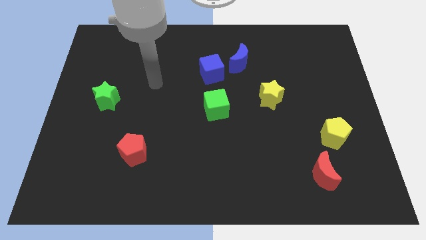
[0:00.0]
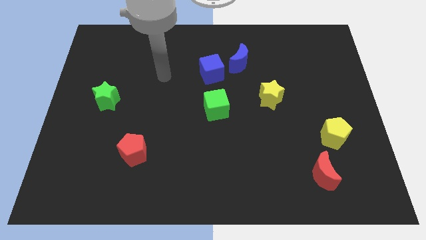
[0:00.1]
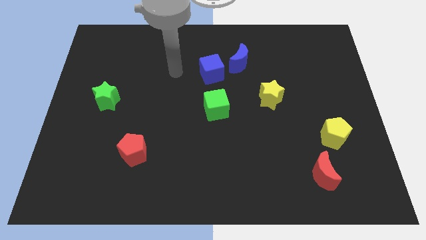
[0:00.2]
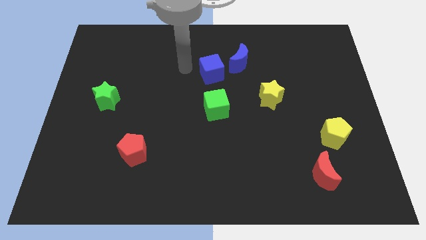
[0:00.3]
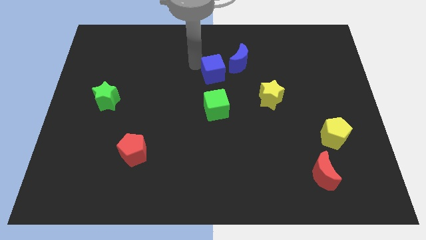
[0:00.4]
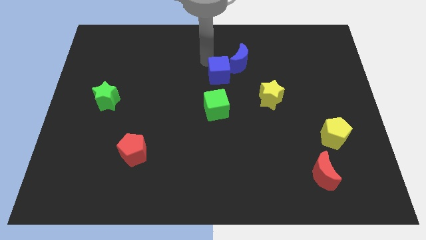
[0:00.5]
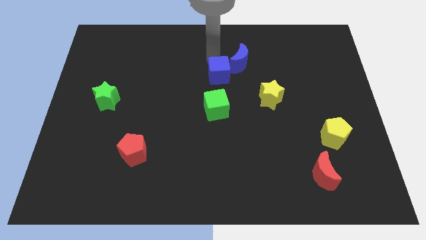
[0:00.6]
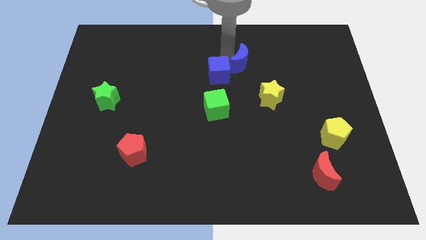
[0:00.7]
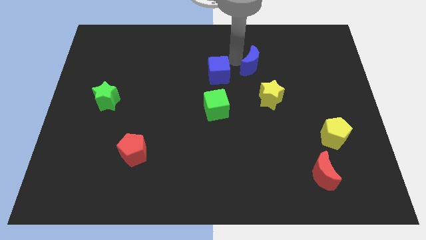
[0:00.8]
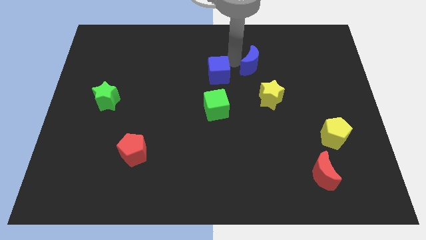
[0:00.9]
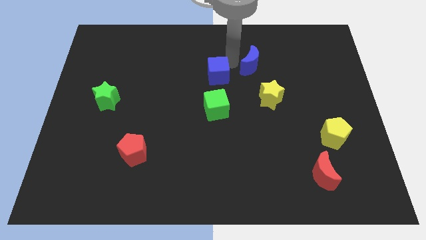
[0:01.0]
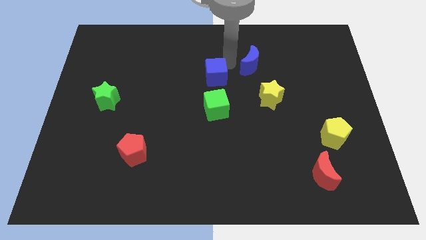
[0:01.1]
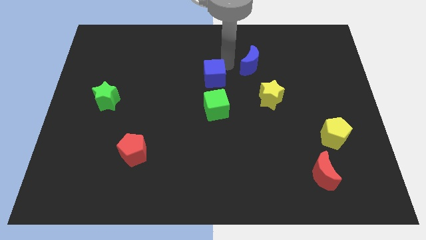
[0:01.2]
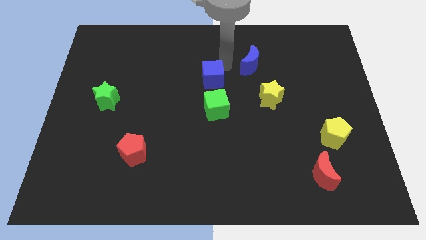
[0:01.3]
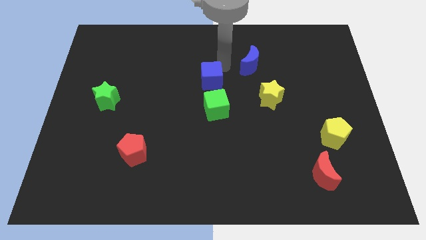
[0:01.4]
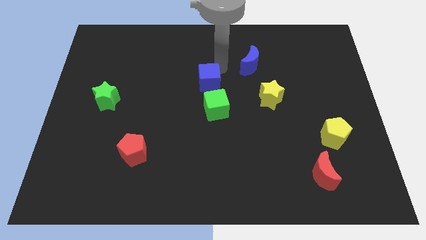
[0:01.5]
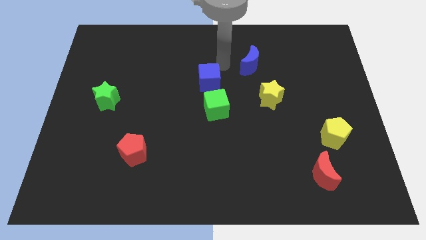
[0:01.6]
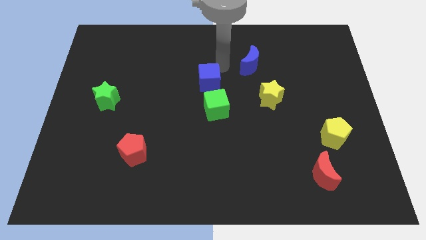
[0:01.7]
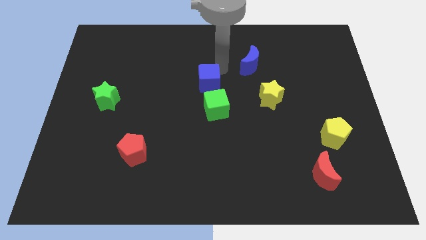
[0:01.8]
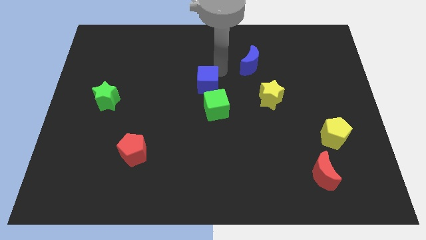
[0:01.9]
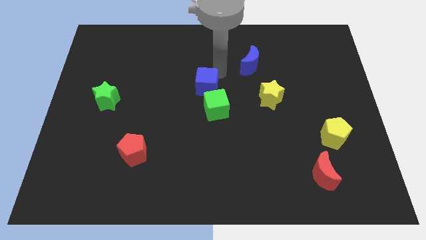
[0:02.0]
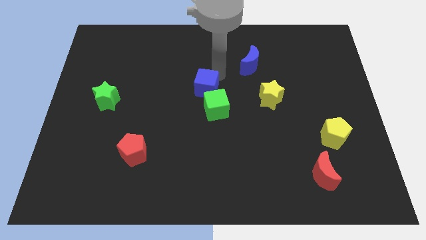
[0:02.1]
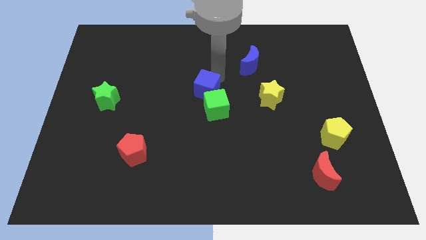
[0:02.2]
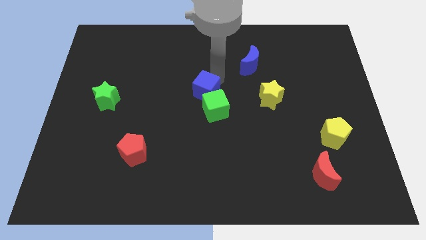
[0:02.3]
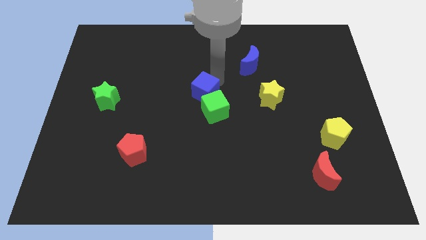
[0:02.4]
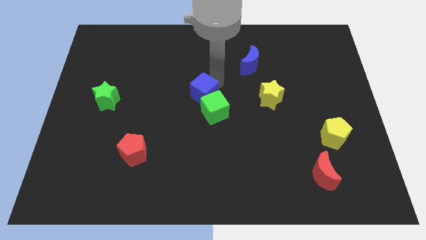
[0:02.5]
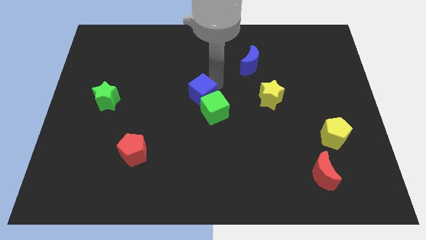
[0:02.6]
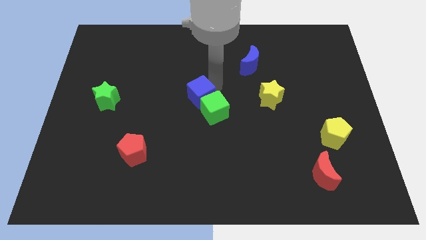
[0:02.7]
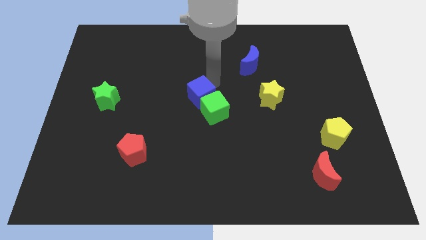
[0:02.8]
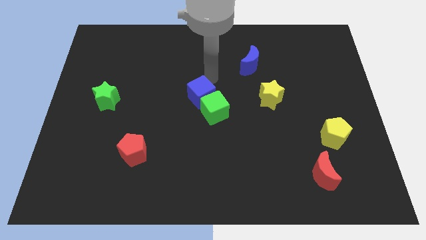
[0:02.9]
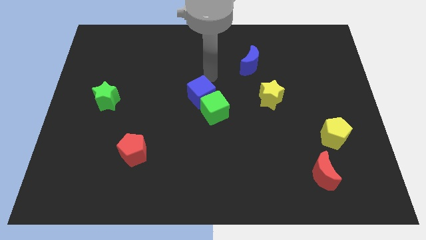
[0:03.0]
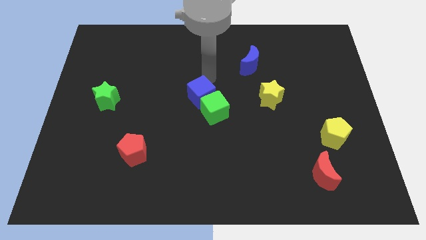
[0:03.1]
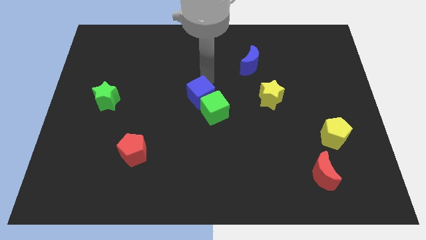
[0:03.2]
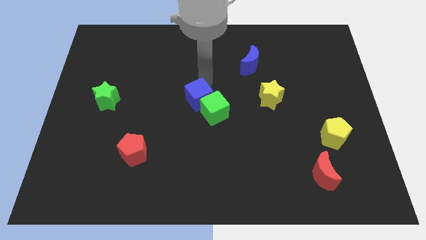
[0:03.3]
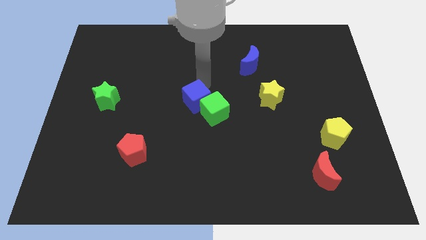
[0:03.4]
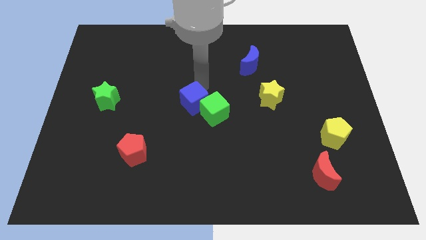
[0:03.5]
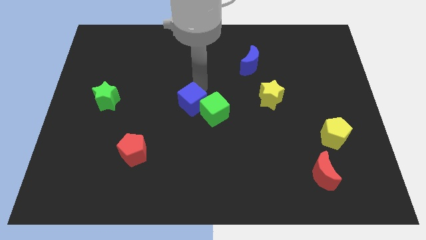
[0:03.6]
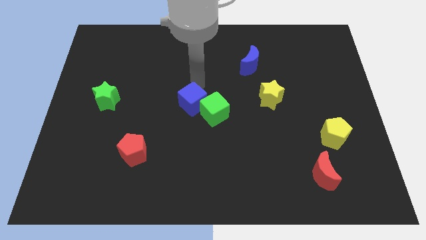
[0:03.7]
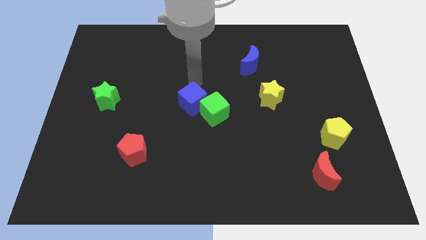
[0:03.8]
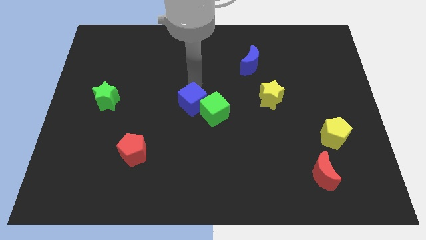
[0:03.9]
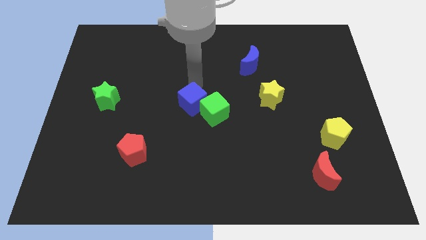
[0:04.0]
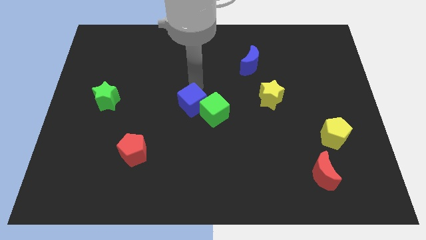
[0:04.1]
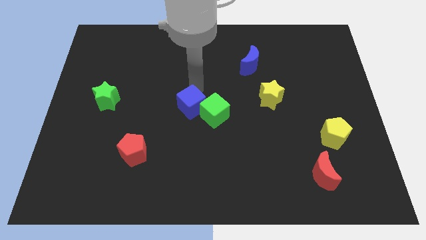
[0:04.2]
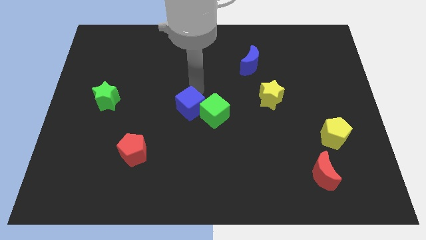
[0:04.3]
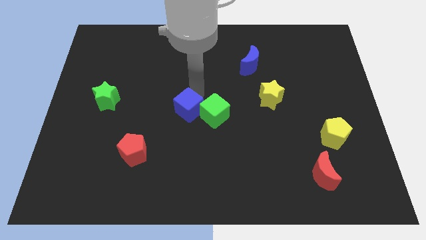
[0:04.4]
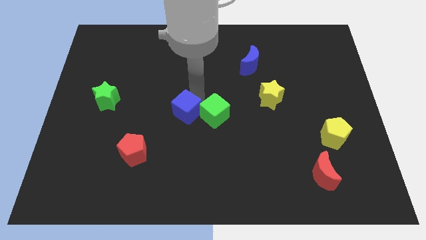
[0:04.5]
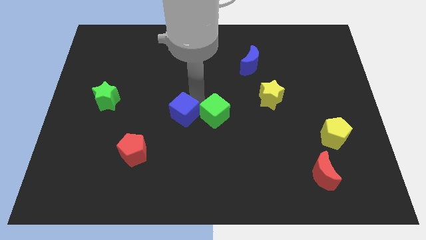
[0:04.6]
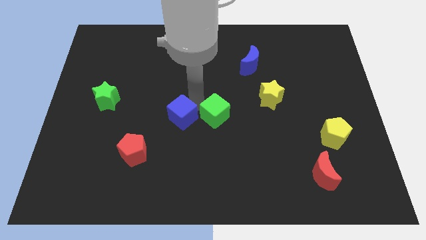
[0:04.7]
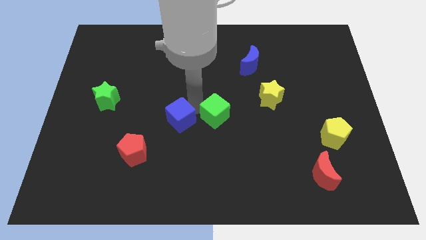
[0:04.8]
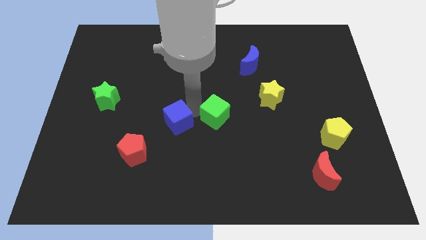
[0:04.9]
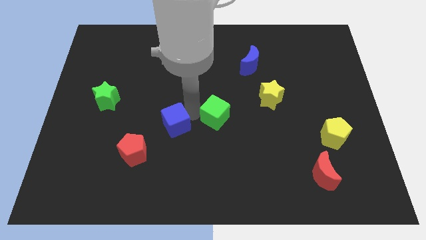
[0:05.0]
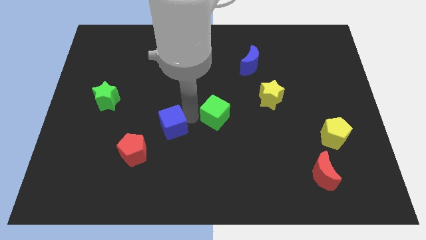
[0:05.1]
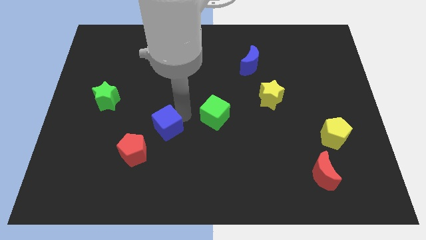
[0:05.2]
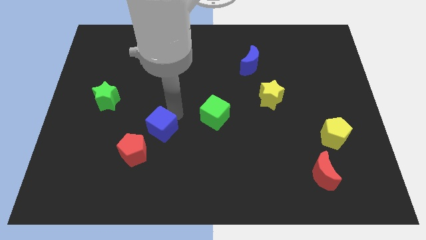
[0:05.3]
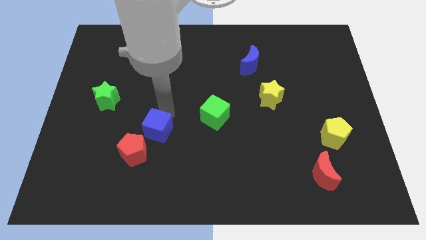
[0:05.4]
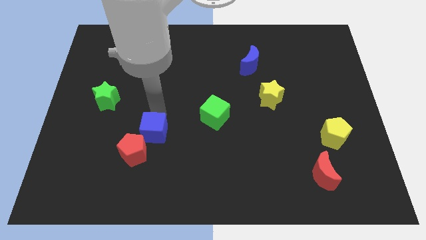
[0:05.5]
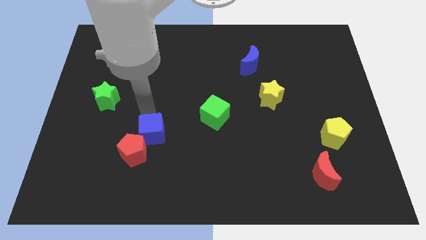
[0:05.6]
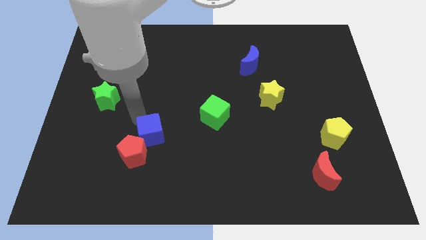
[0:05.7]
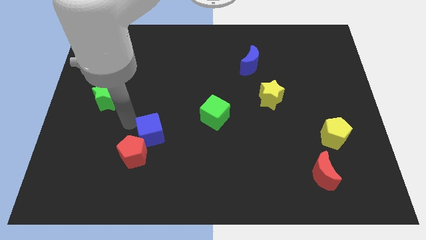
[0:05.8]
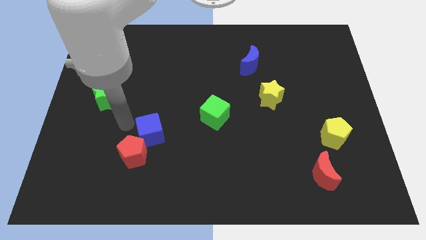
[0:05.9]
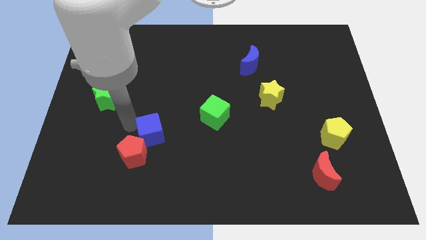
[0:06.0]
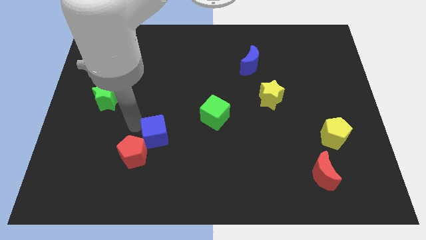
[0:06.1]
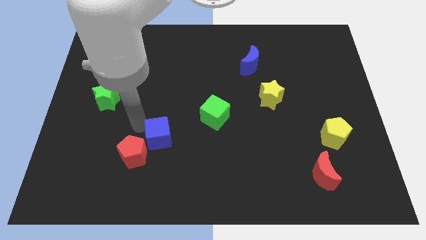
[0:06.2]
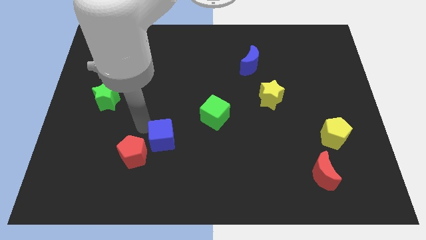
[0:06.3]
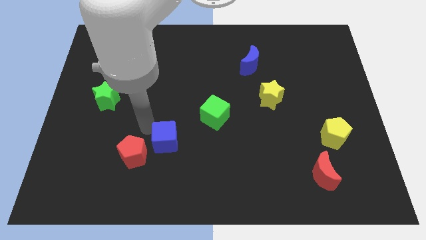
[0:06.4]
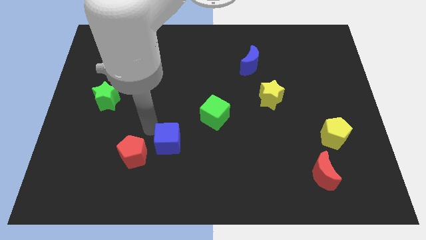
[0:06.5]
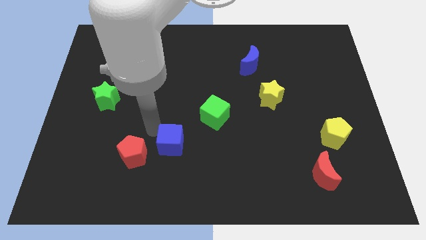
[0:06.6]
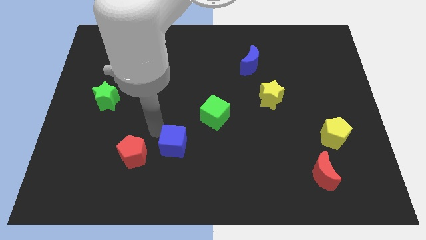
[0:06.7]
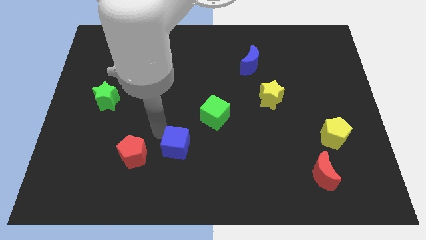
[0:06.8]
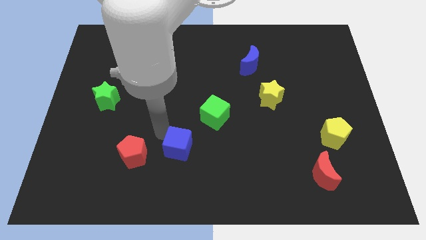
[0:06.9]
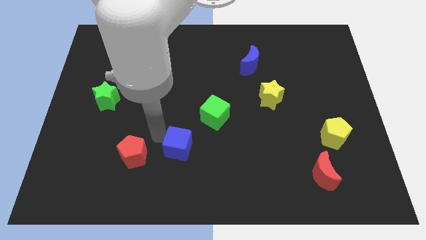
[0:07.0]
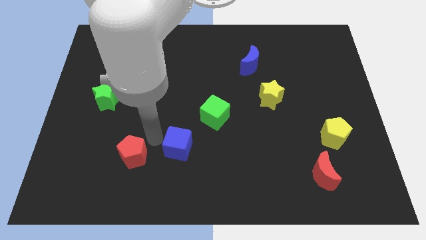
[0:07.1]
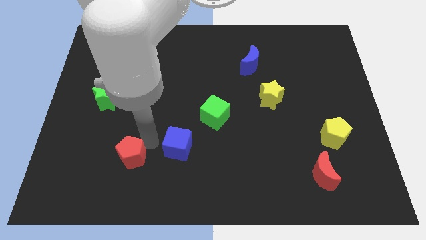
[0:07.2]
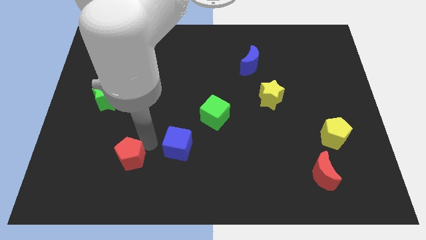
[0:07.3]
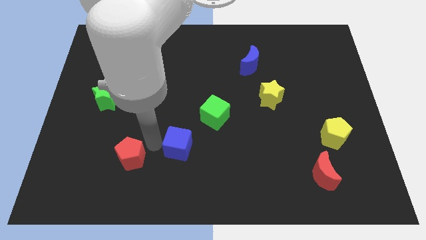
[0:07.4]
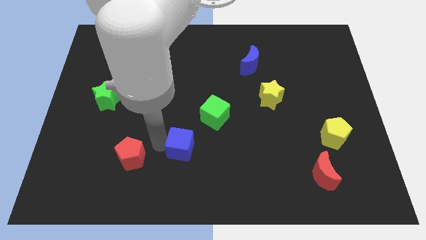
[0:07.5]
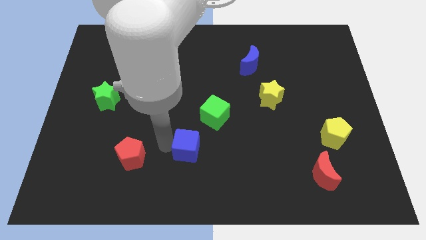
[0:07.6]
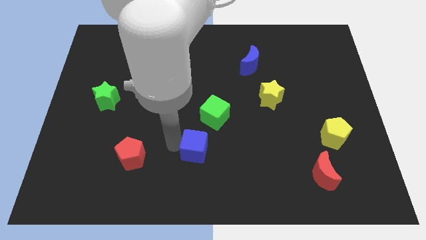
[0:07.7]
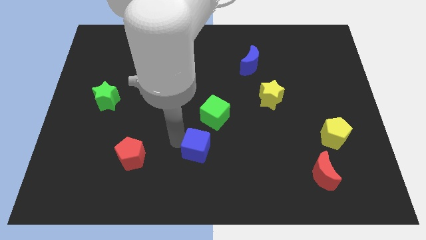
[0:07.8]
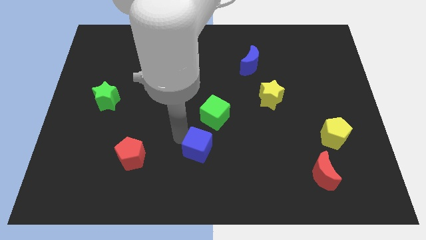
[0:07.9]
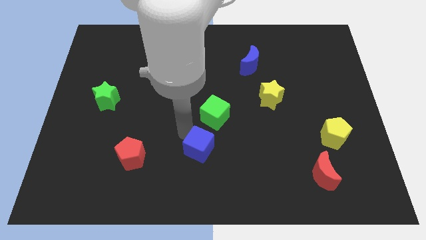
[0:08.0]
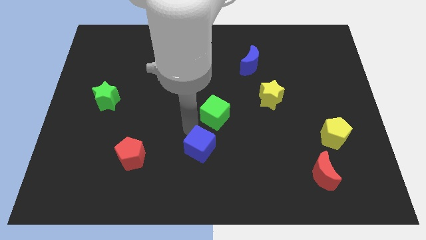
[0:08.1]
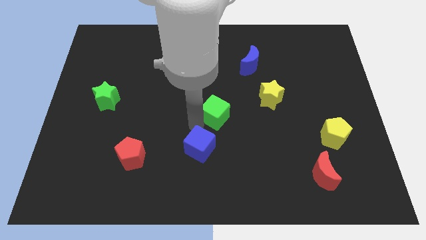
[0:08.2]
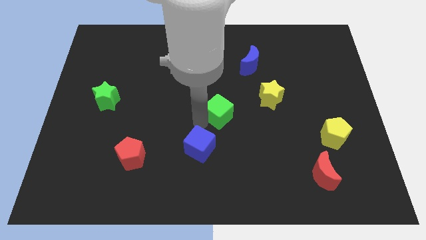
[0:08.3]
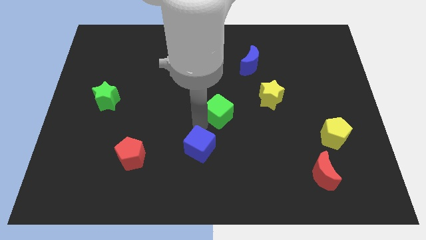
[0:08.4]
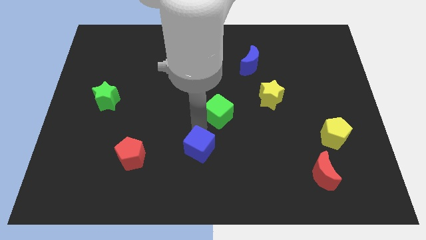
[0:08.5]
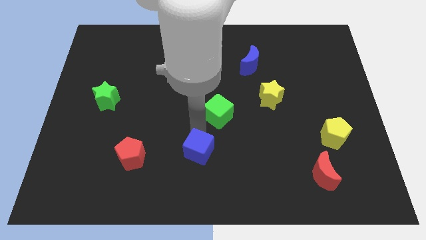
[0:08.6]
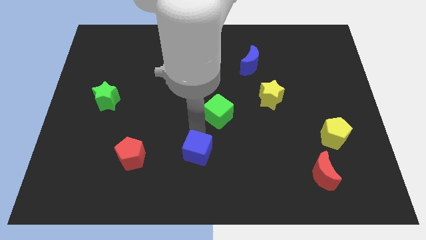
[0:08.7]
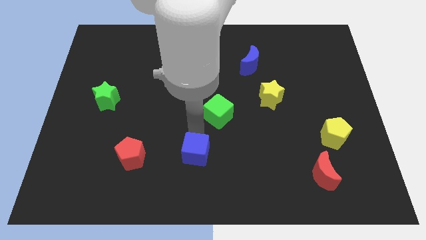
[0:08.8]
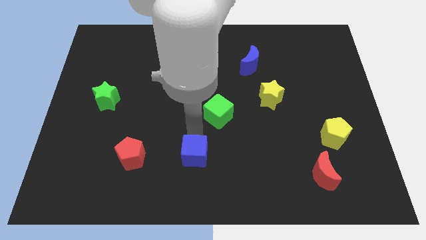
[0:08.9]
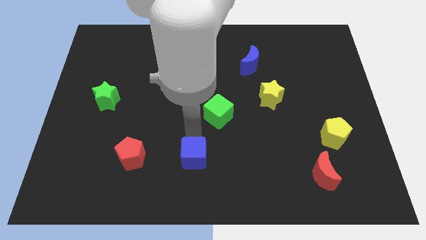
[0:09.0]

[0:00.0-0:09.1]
put the blue cube to the bottom
